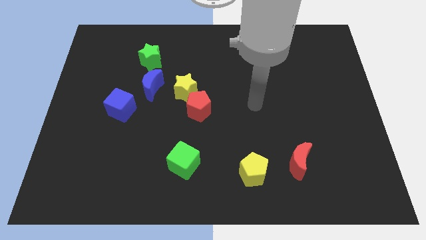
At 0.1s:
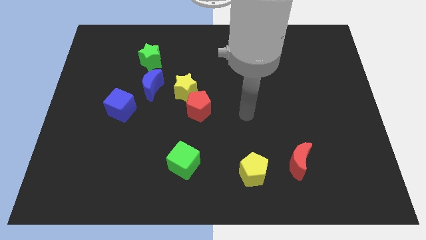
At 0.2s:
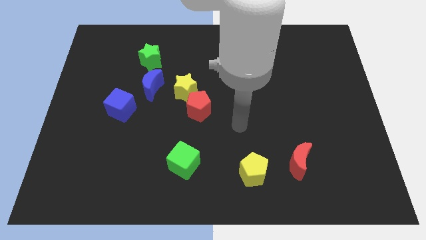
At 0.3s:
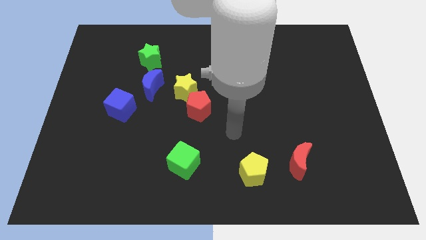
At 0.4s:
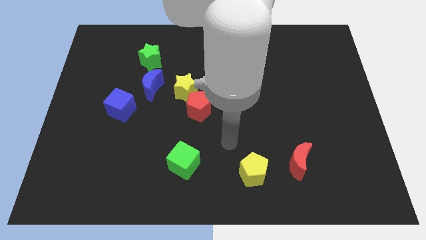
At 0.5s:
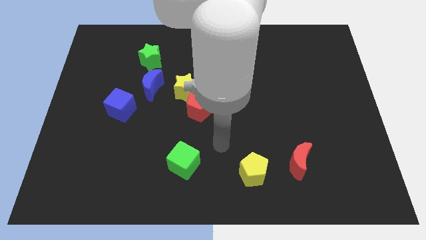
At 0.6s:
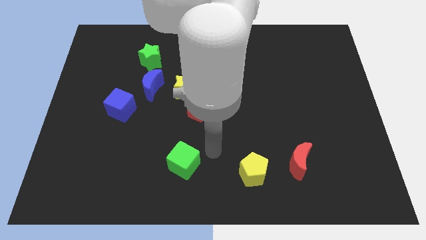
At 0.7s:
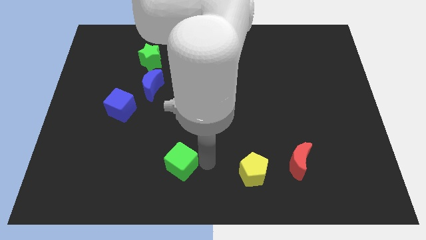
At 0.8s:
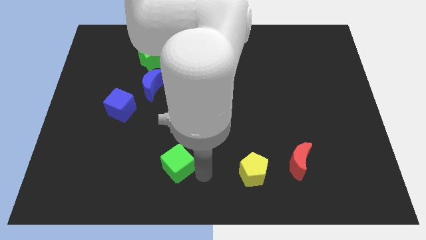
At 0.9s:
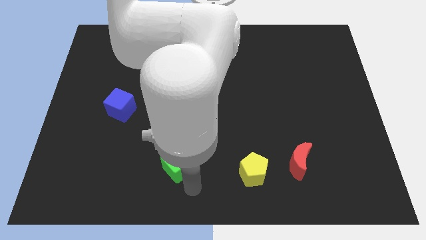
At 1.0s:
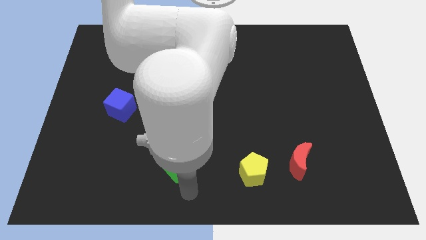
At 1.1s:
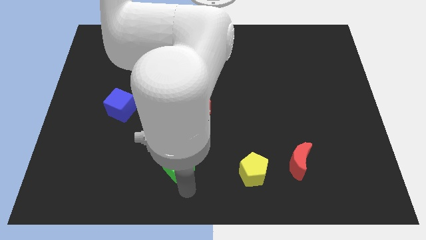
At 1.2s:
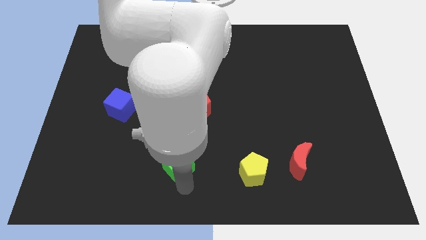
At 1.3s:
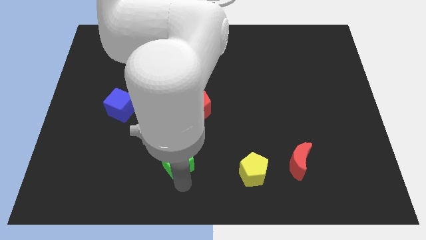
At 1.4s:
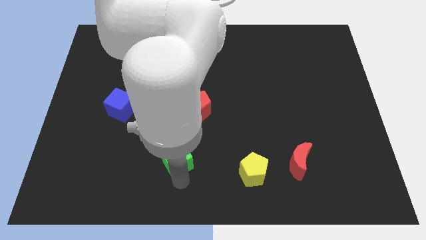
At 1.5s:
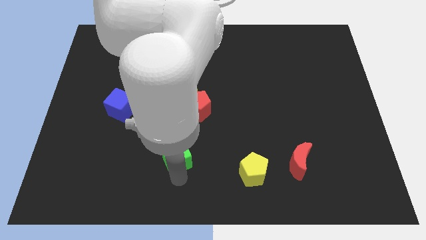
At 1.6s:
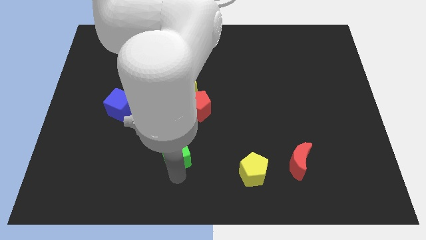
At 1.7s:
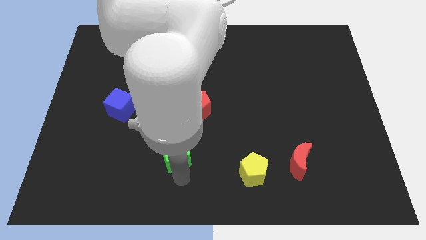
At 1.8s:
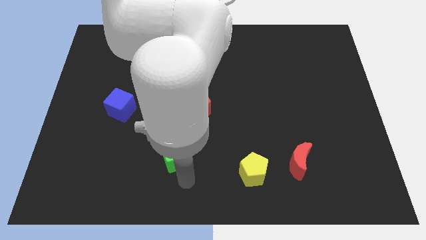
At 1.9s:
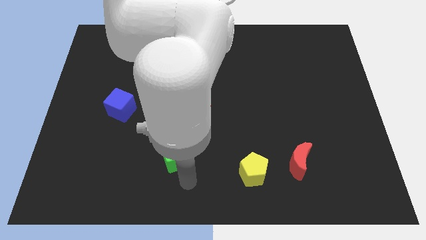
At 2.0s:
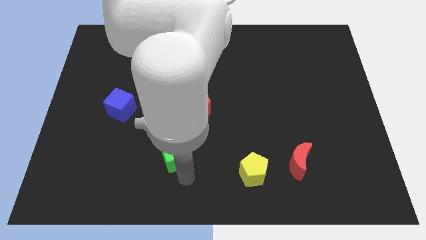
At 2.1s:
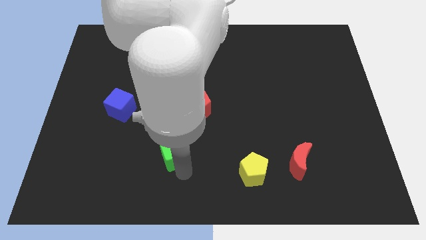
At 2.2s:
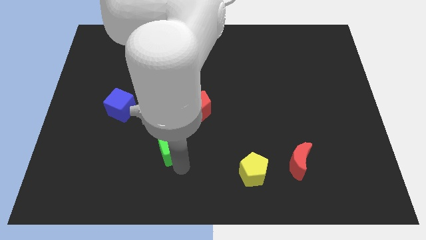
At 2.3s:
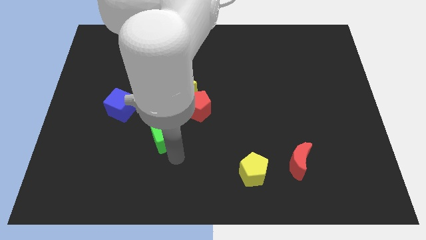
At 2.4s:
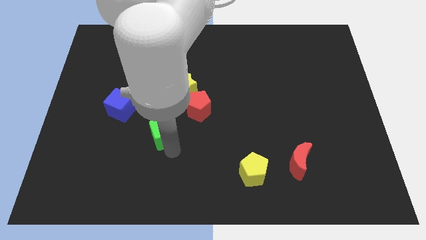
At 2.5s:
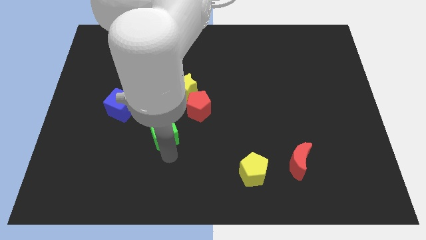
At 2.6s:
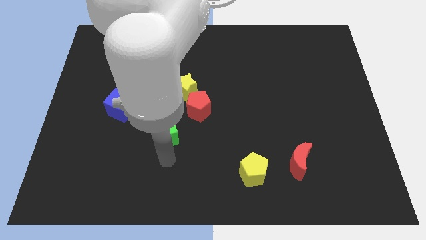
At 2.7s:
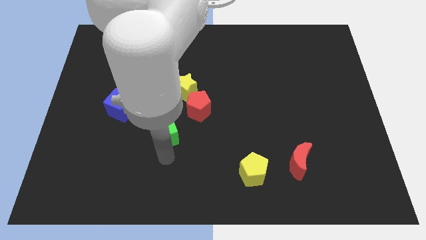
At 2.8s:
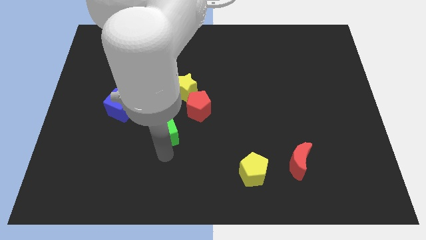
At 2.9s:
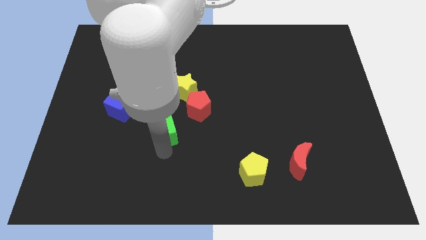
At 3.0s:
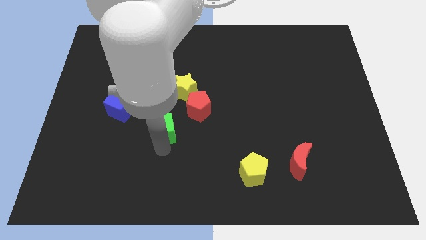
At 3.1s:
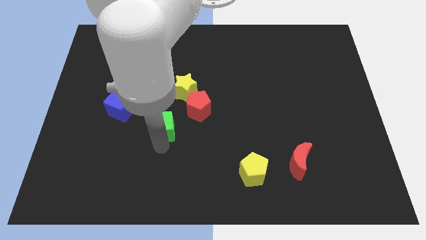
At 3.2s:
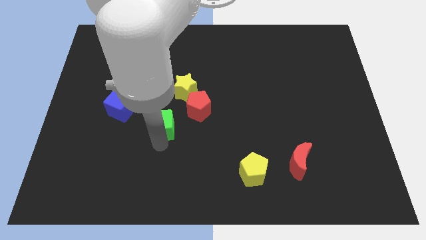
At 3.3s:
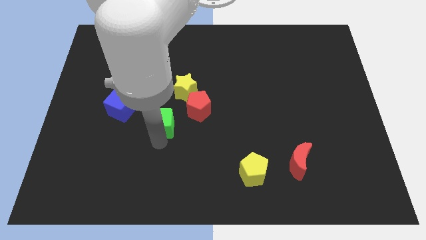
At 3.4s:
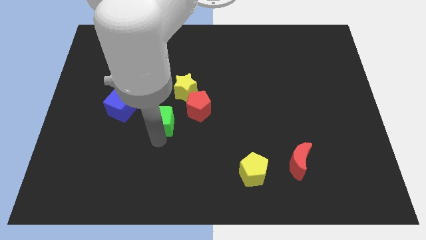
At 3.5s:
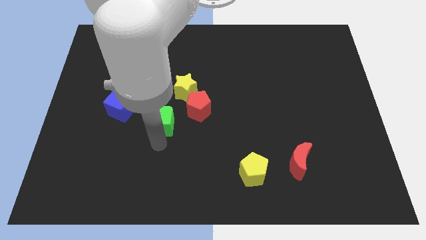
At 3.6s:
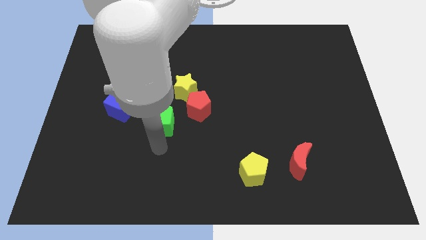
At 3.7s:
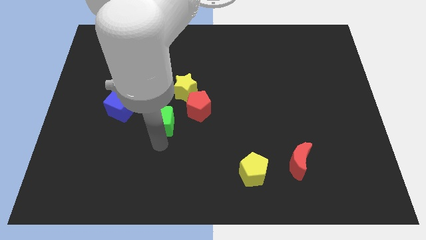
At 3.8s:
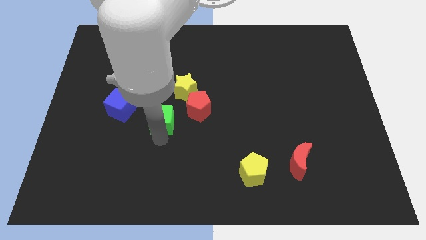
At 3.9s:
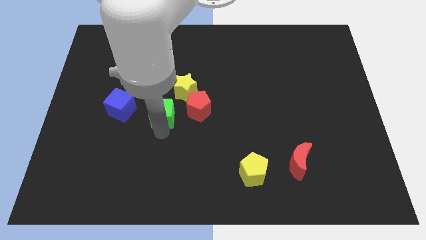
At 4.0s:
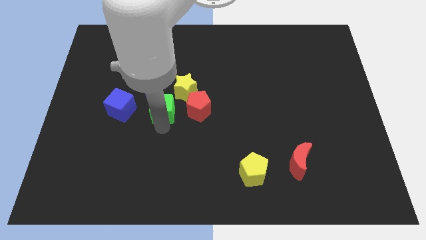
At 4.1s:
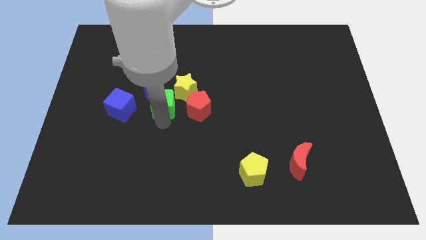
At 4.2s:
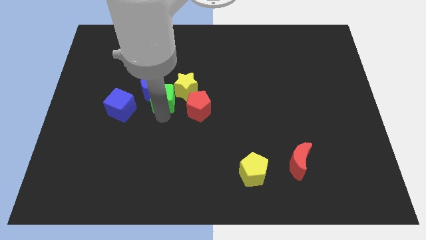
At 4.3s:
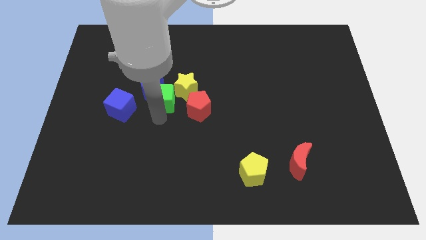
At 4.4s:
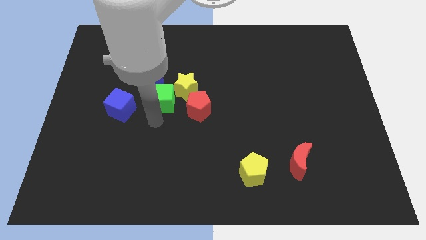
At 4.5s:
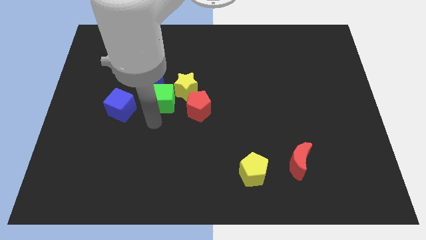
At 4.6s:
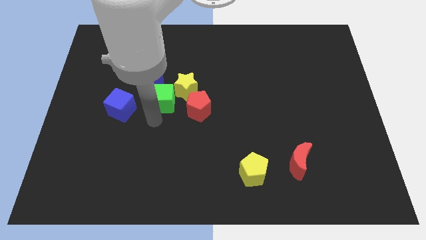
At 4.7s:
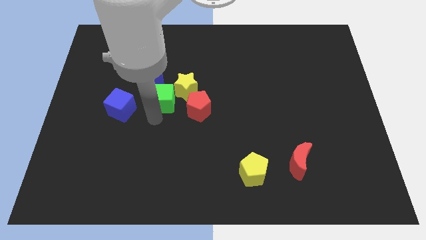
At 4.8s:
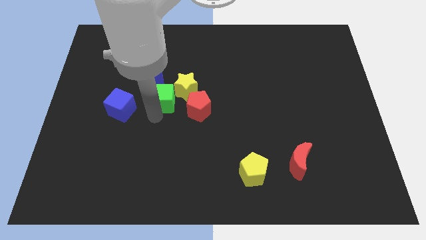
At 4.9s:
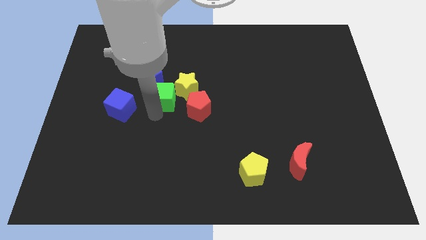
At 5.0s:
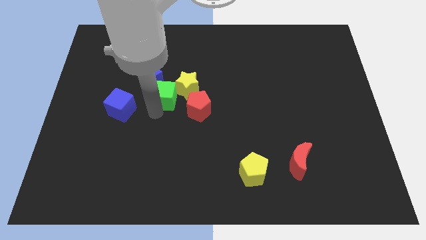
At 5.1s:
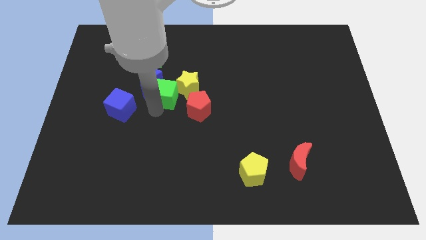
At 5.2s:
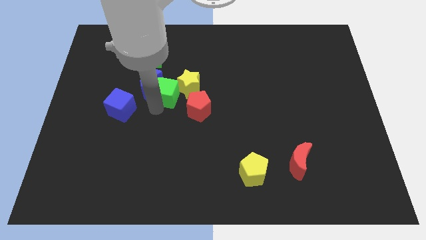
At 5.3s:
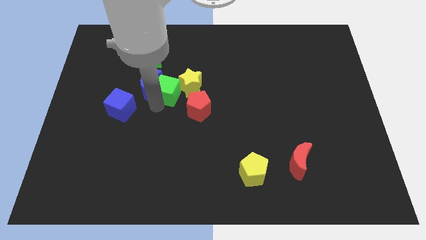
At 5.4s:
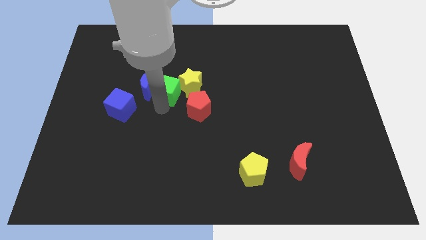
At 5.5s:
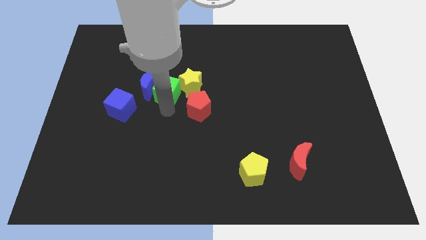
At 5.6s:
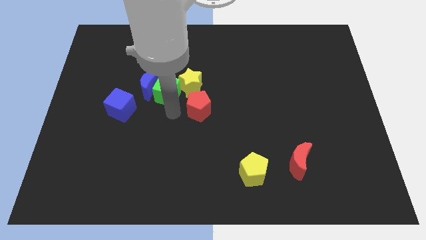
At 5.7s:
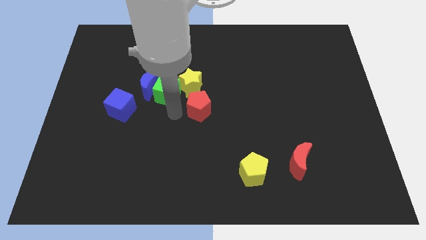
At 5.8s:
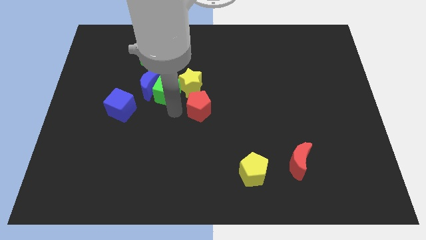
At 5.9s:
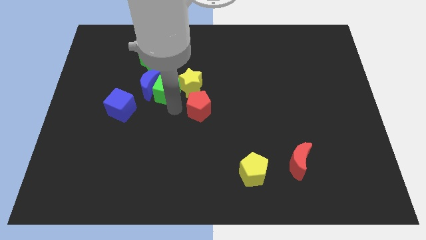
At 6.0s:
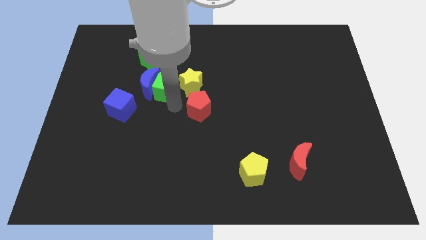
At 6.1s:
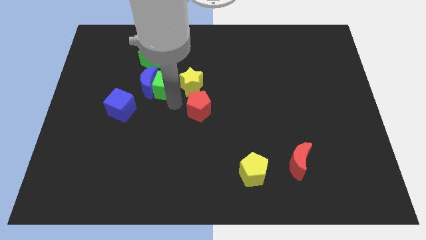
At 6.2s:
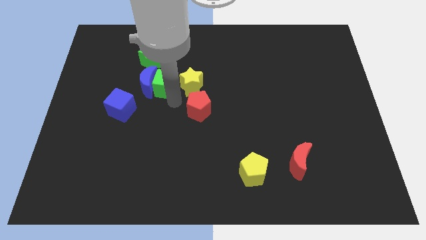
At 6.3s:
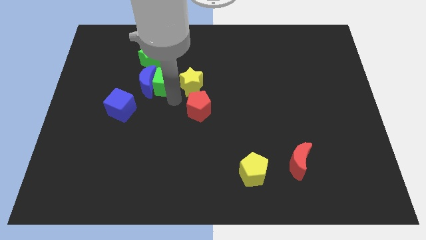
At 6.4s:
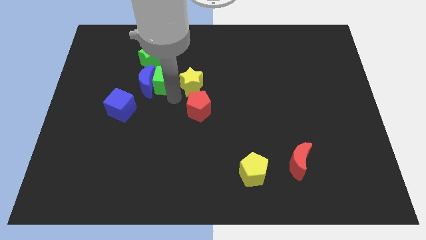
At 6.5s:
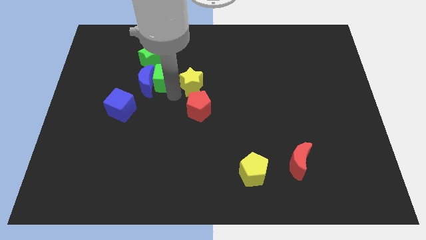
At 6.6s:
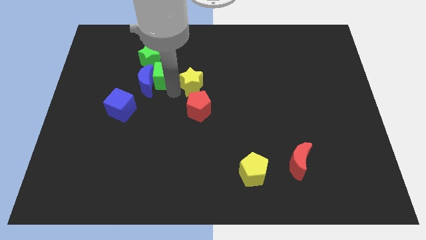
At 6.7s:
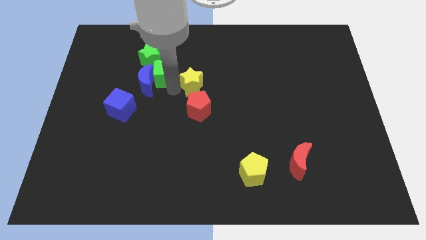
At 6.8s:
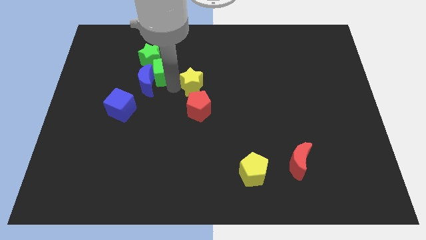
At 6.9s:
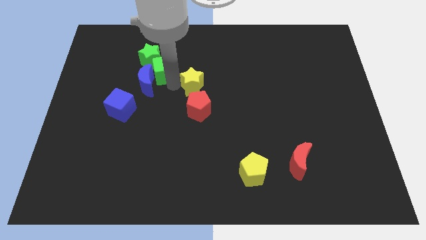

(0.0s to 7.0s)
push the green cube to the green star

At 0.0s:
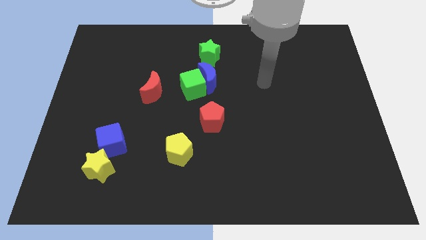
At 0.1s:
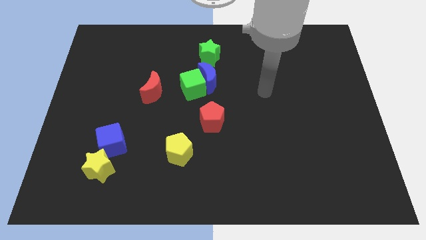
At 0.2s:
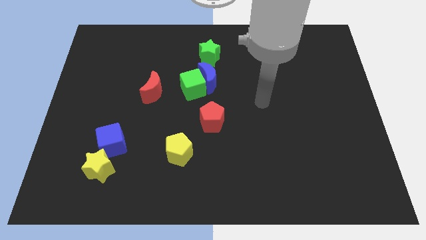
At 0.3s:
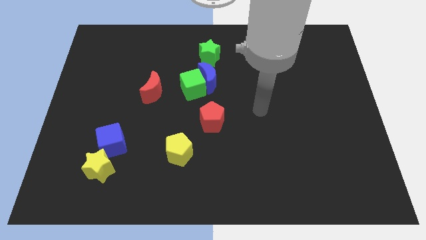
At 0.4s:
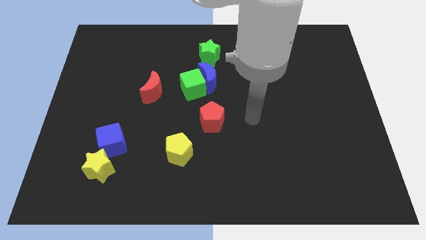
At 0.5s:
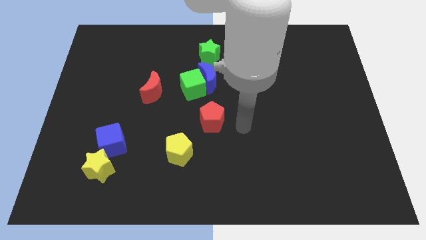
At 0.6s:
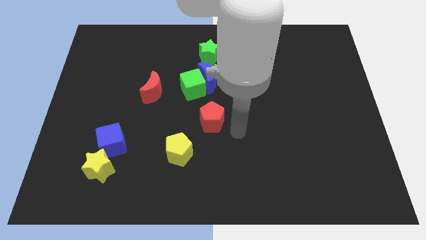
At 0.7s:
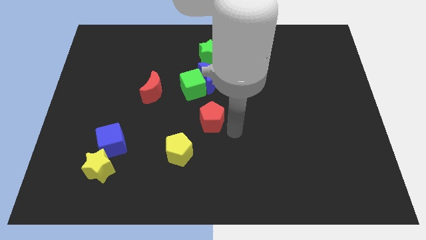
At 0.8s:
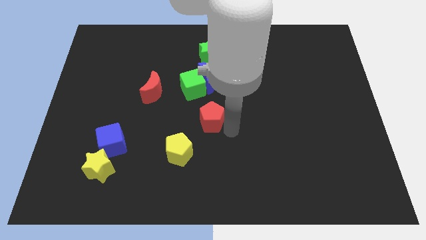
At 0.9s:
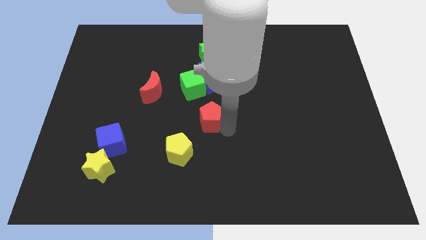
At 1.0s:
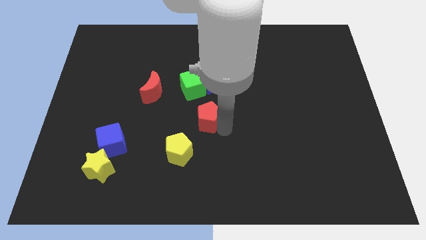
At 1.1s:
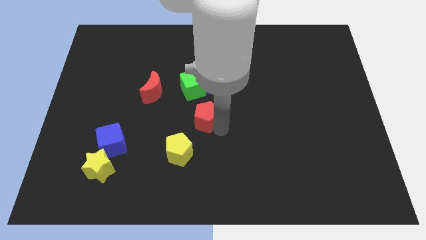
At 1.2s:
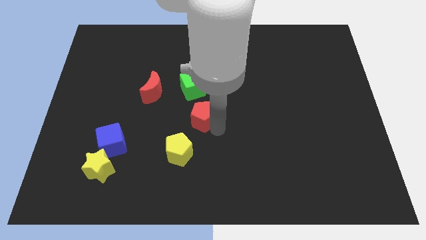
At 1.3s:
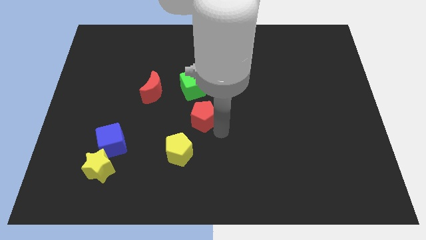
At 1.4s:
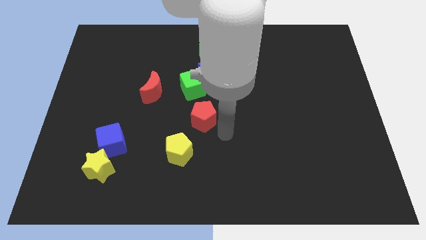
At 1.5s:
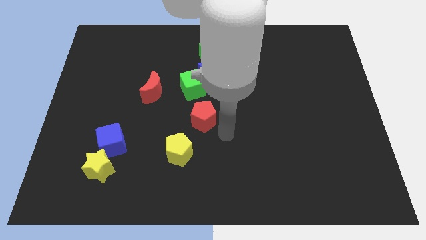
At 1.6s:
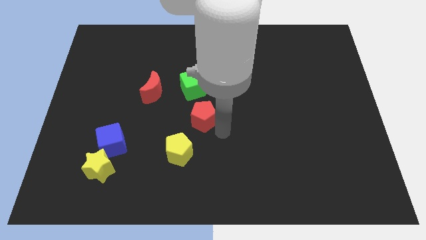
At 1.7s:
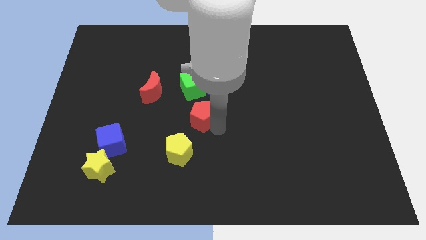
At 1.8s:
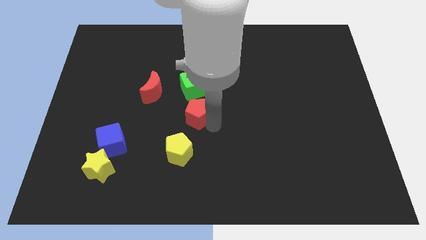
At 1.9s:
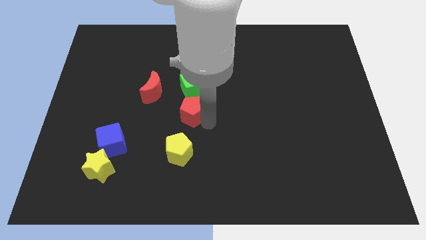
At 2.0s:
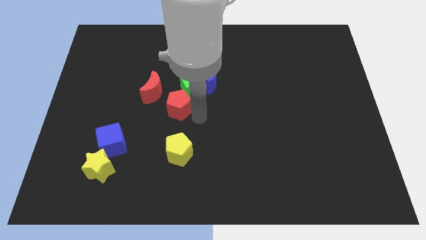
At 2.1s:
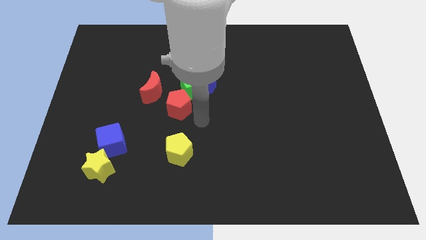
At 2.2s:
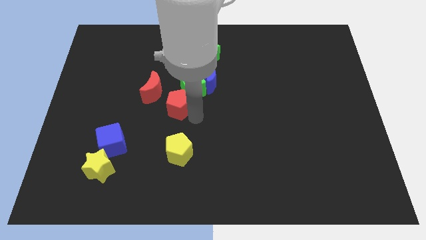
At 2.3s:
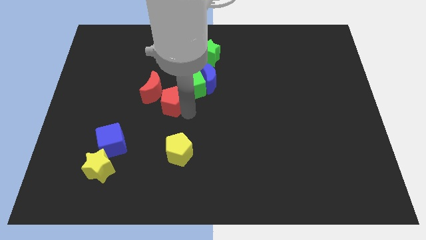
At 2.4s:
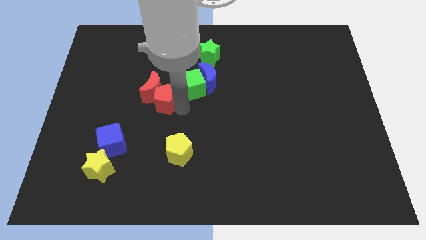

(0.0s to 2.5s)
move the red pentagon close to the red moon
